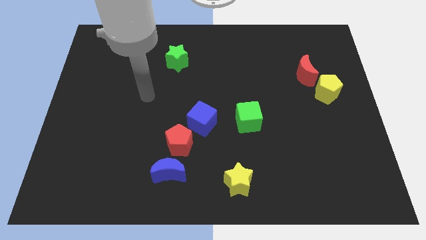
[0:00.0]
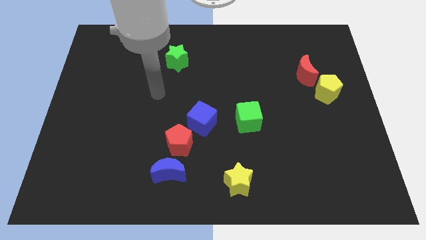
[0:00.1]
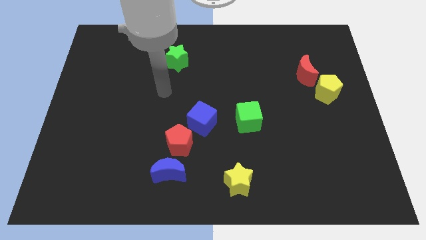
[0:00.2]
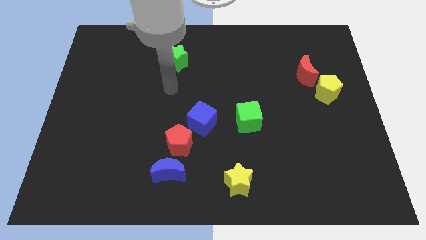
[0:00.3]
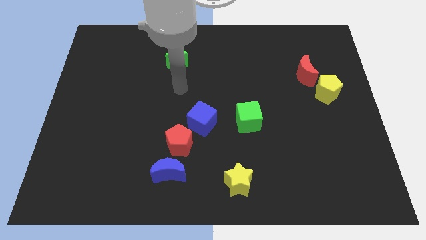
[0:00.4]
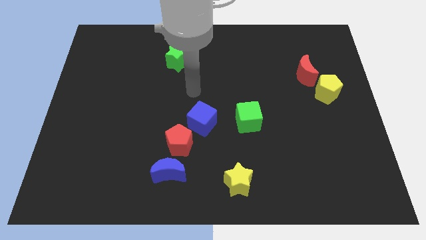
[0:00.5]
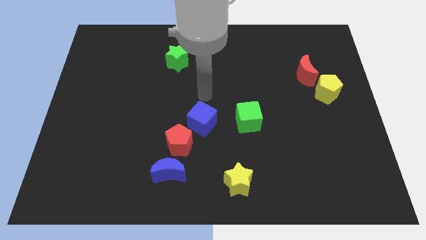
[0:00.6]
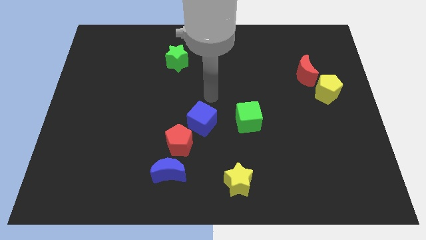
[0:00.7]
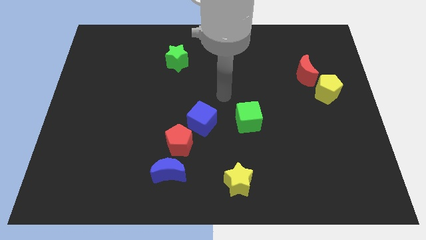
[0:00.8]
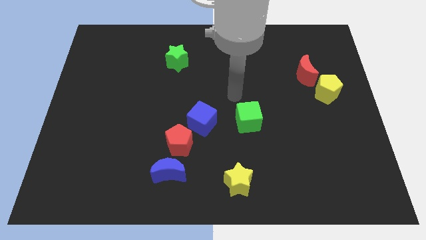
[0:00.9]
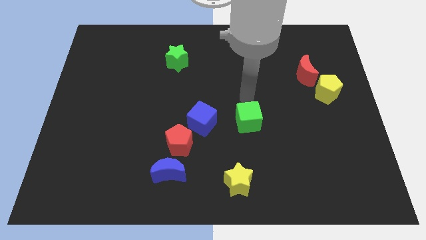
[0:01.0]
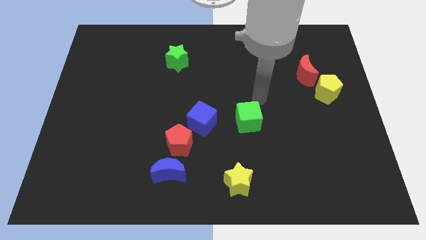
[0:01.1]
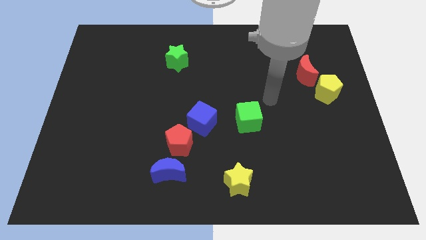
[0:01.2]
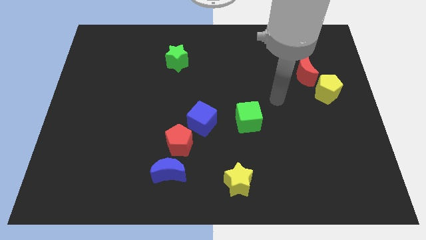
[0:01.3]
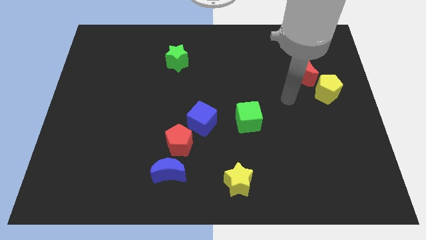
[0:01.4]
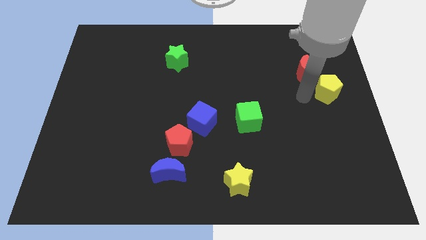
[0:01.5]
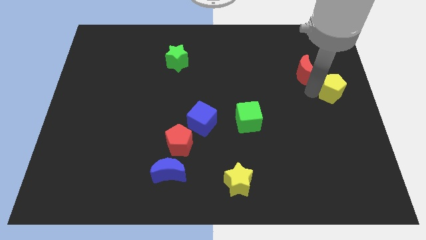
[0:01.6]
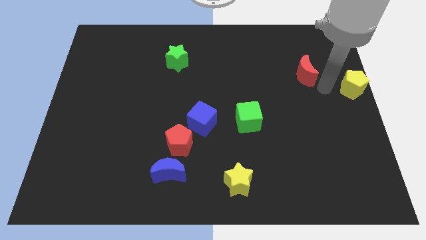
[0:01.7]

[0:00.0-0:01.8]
pull the red moon apart from the yellow pentagon

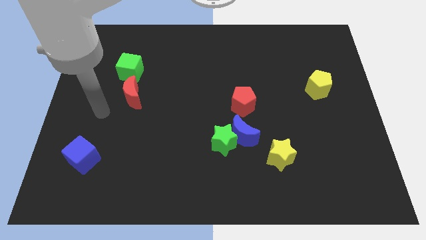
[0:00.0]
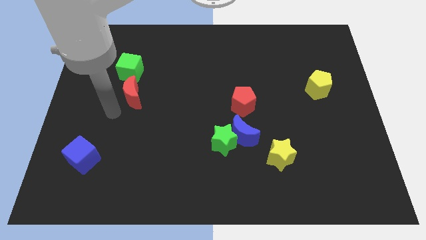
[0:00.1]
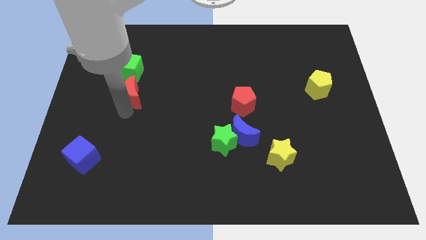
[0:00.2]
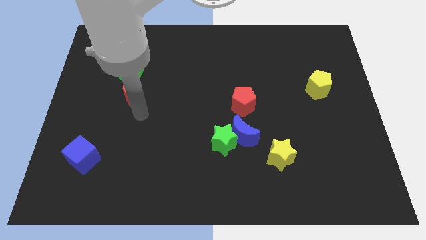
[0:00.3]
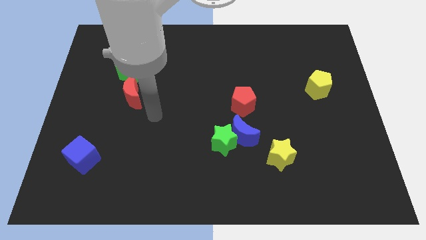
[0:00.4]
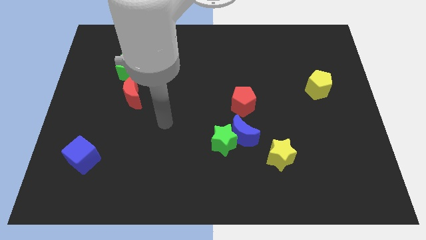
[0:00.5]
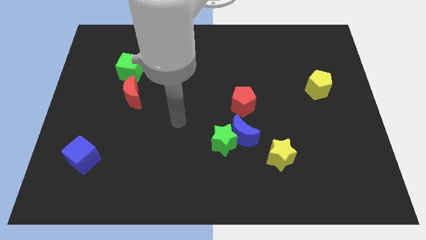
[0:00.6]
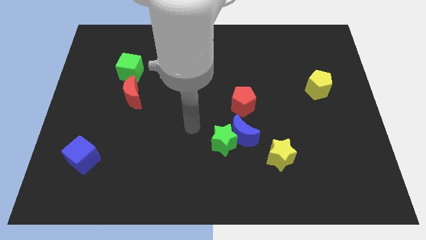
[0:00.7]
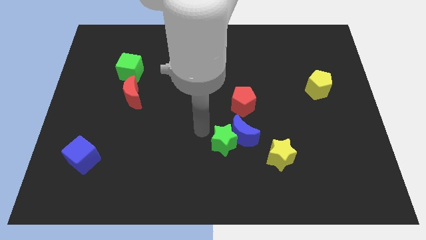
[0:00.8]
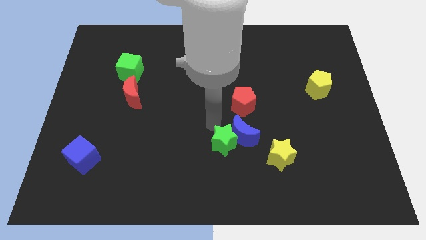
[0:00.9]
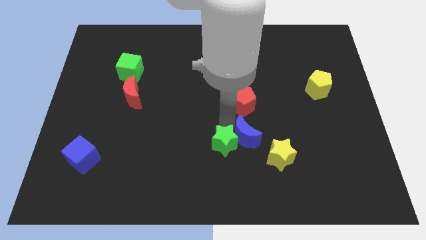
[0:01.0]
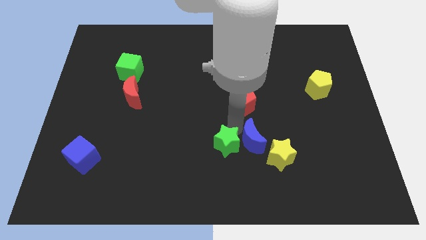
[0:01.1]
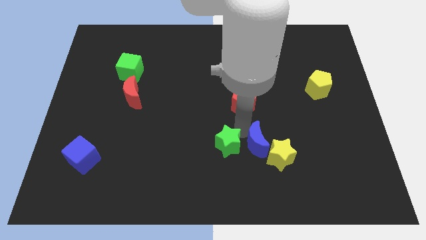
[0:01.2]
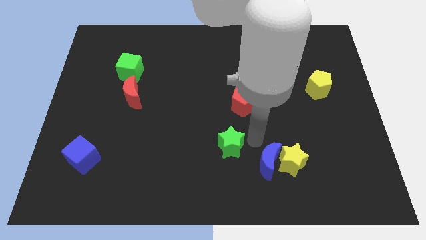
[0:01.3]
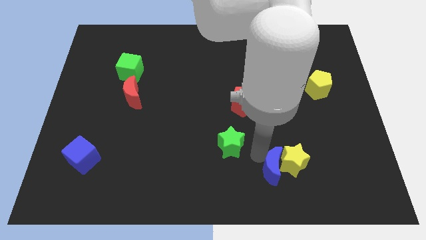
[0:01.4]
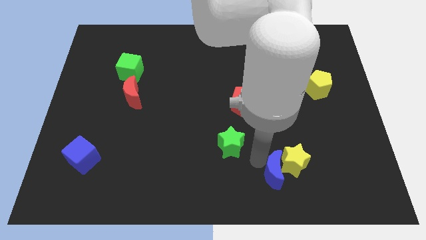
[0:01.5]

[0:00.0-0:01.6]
separate the green star from the blue moon

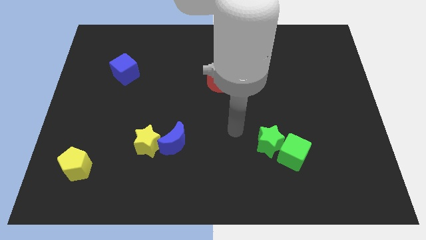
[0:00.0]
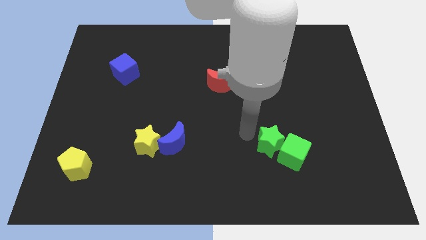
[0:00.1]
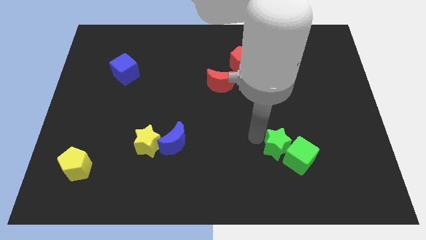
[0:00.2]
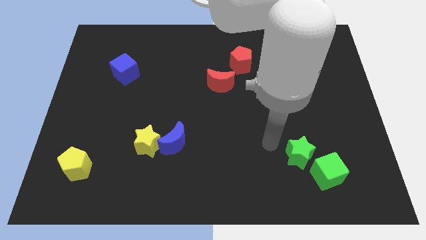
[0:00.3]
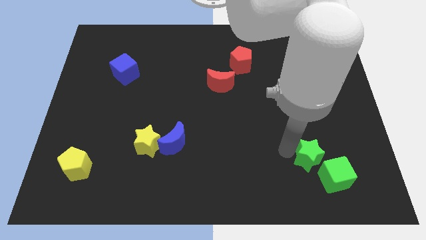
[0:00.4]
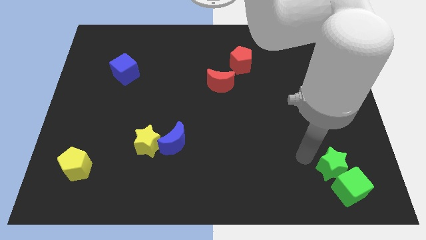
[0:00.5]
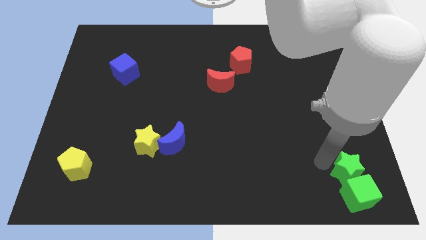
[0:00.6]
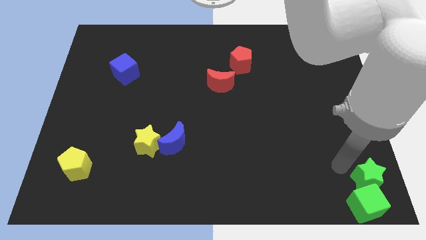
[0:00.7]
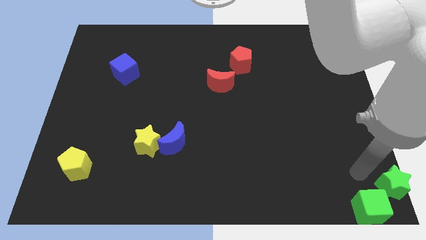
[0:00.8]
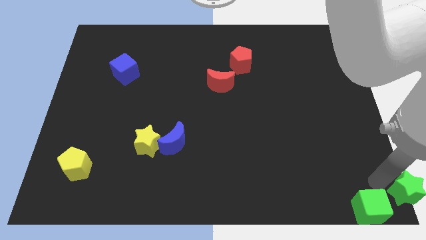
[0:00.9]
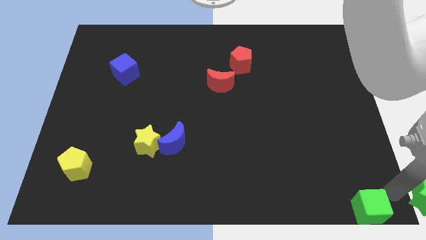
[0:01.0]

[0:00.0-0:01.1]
move the green cube away from the green star

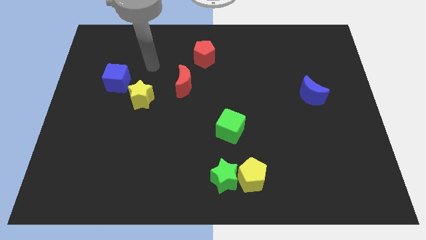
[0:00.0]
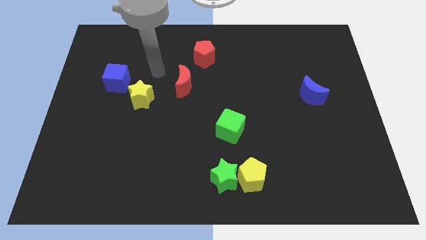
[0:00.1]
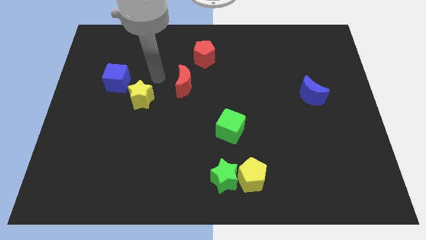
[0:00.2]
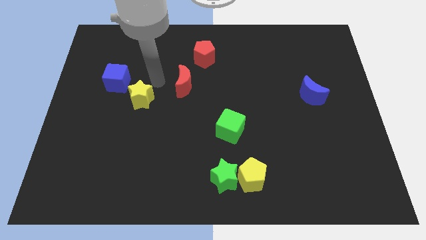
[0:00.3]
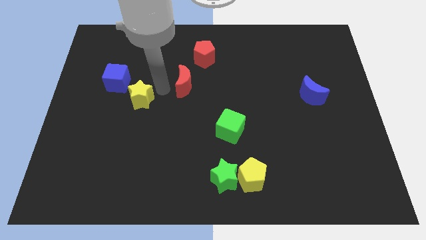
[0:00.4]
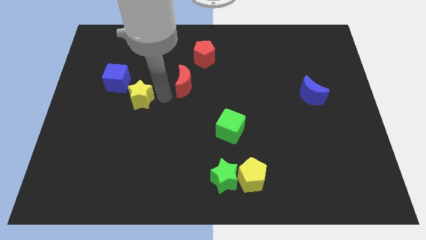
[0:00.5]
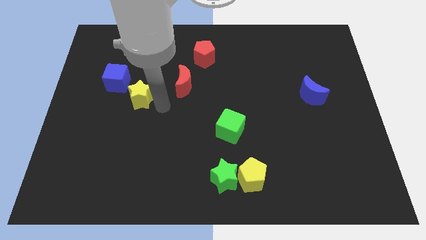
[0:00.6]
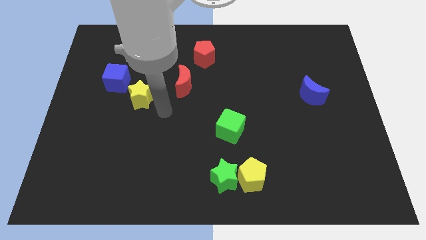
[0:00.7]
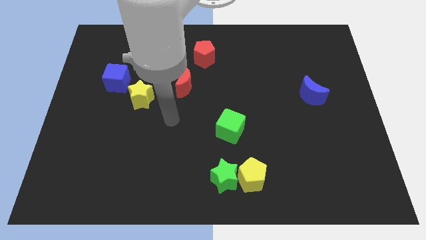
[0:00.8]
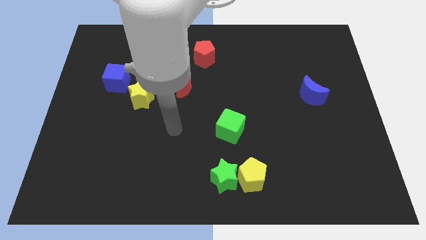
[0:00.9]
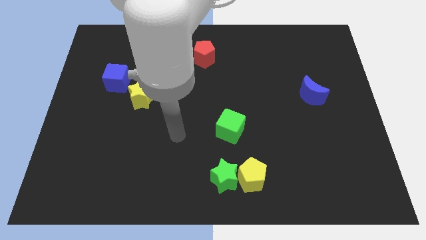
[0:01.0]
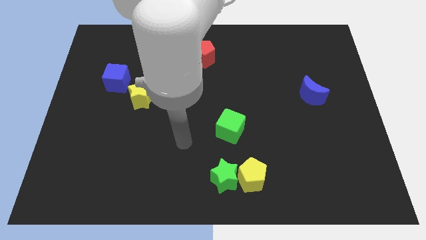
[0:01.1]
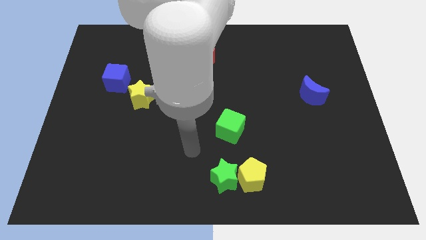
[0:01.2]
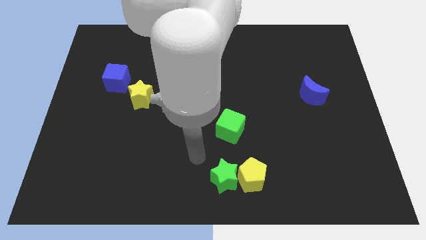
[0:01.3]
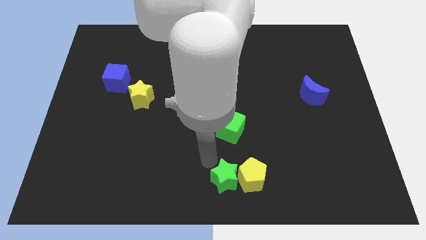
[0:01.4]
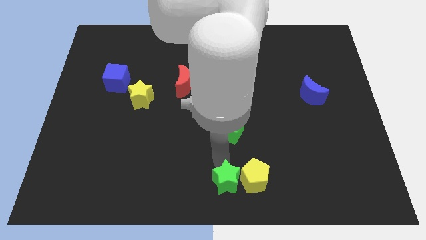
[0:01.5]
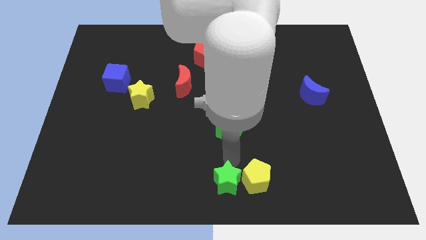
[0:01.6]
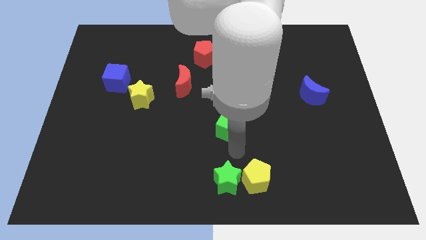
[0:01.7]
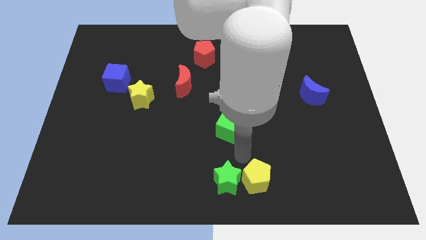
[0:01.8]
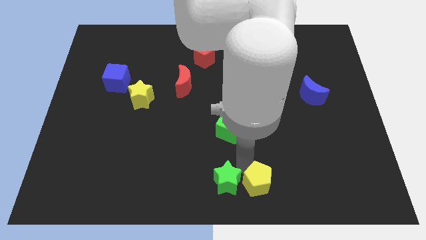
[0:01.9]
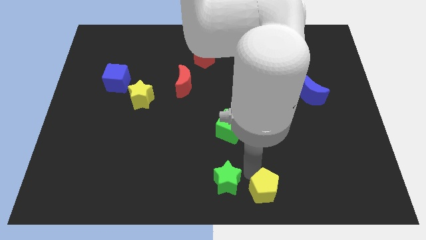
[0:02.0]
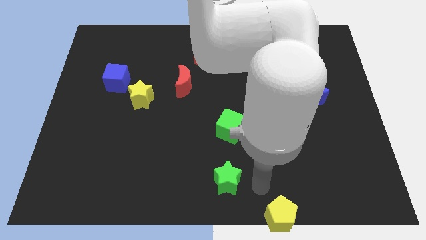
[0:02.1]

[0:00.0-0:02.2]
pull the green star apart from the yellow pentagon

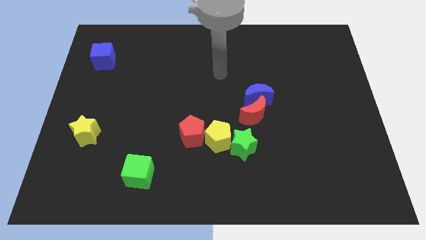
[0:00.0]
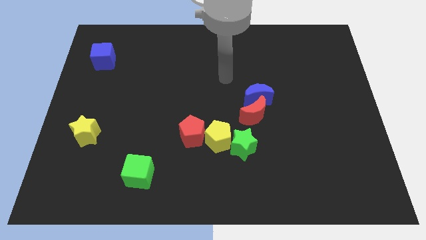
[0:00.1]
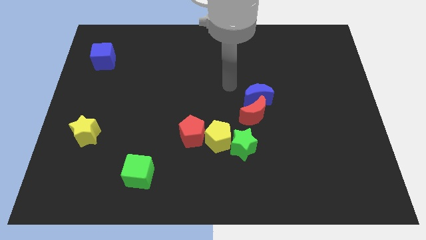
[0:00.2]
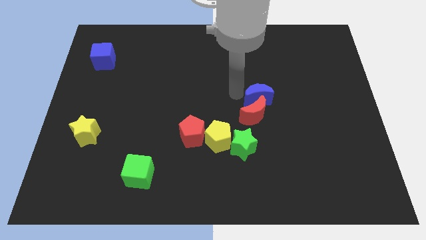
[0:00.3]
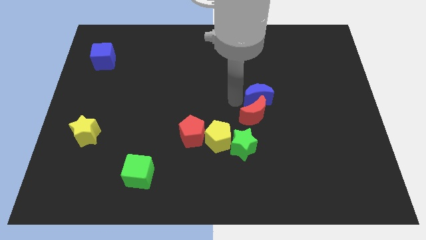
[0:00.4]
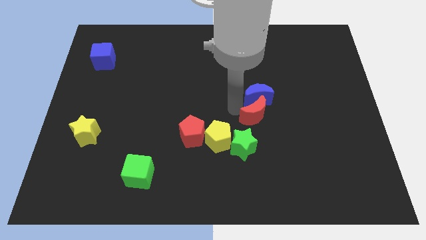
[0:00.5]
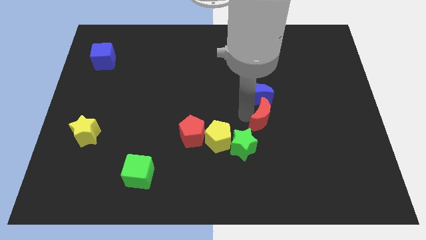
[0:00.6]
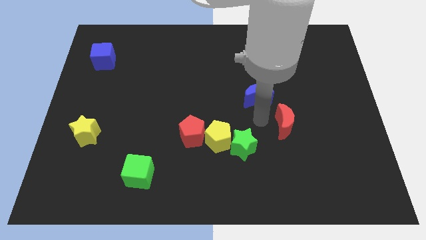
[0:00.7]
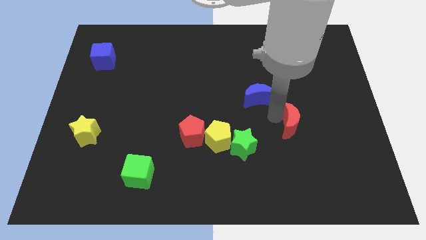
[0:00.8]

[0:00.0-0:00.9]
separate the blue moon from the red moon

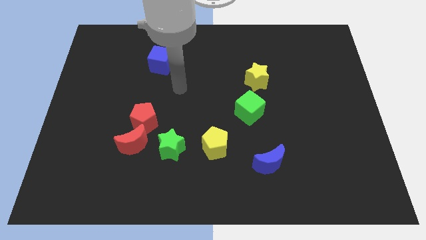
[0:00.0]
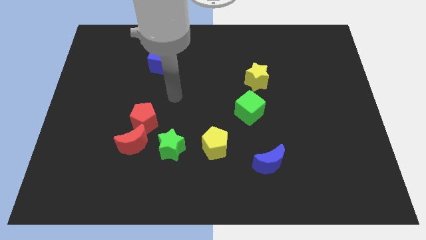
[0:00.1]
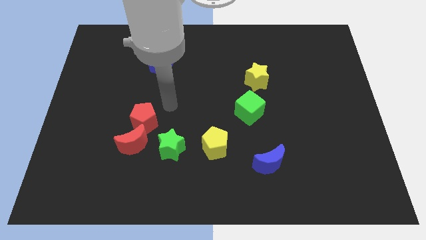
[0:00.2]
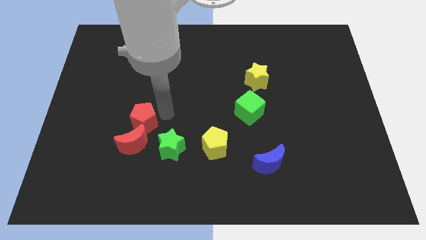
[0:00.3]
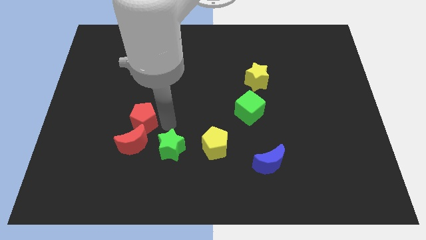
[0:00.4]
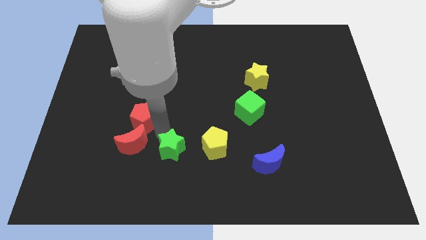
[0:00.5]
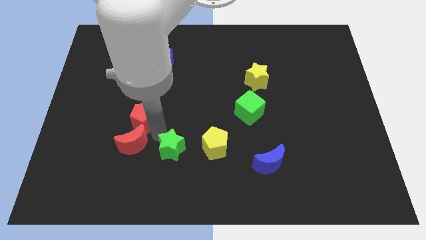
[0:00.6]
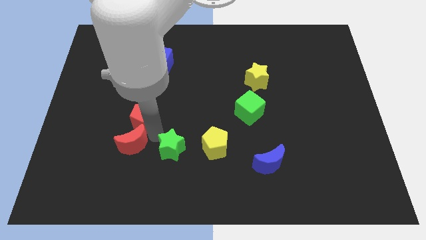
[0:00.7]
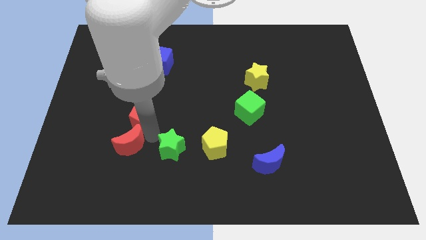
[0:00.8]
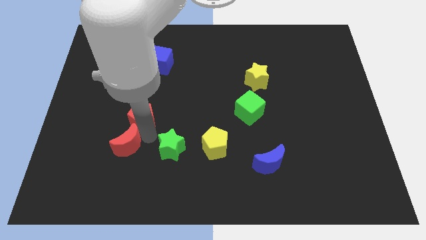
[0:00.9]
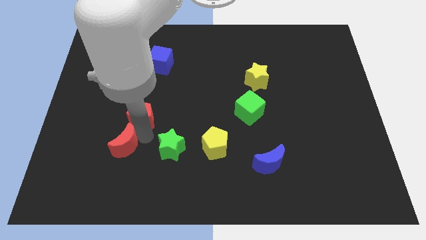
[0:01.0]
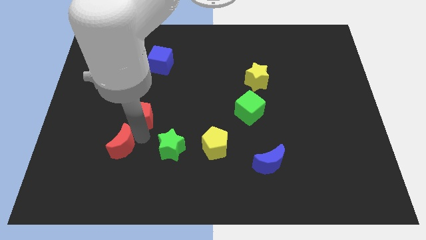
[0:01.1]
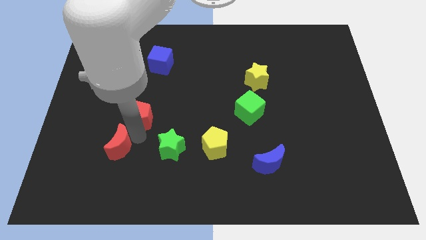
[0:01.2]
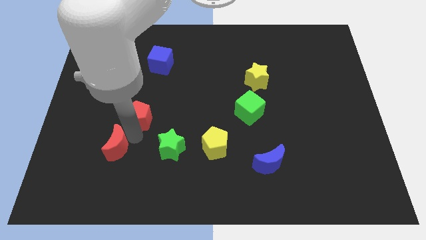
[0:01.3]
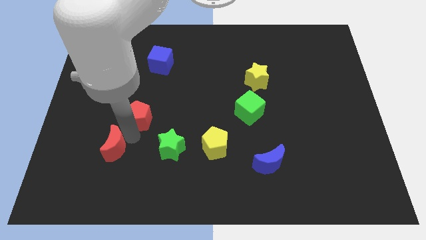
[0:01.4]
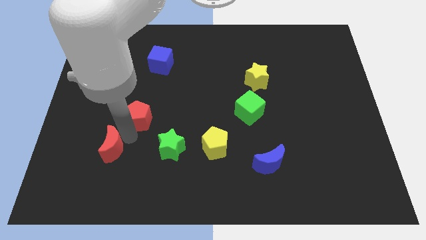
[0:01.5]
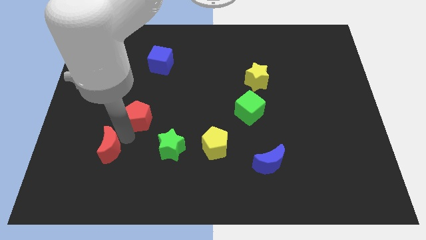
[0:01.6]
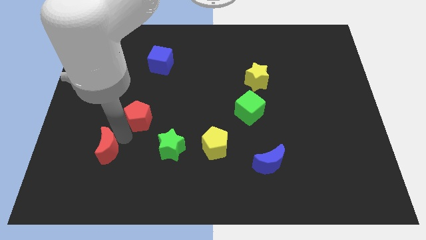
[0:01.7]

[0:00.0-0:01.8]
pull the red moon apart from the red pentagon and green star
